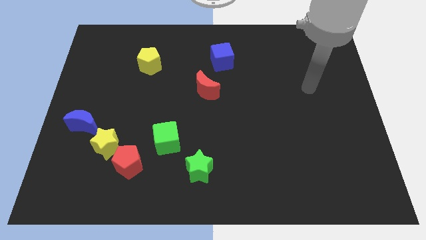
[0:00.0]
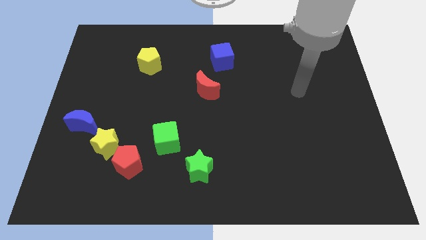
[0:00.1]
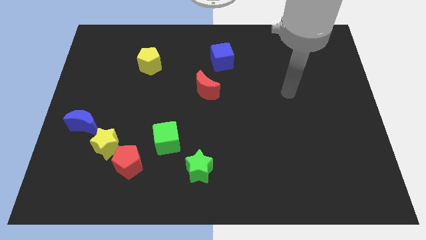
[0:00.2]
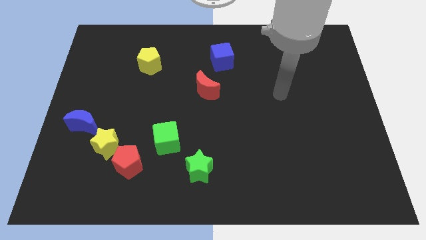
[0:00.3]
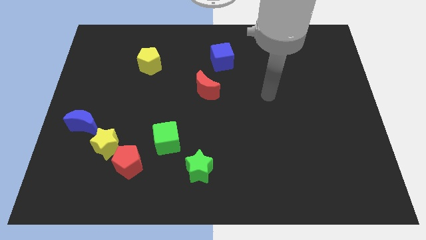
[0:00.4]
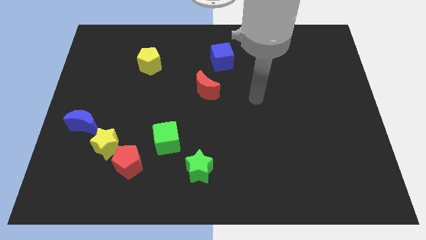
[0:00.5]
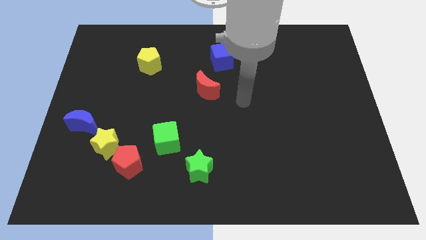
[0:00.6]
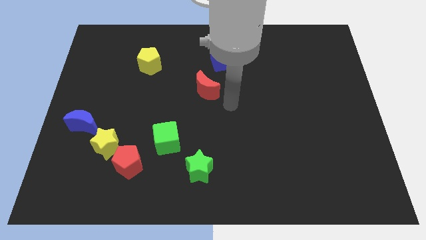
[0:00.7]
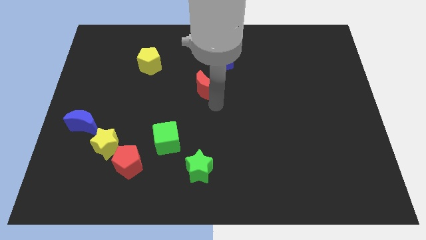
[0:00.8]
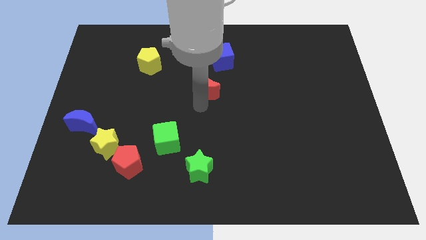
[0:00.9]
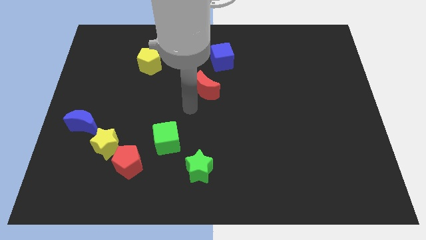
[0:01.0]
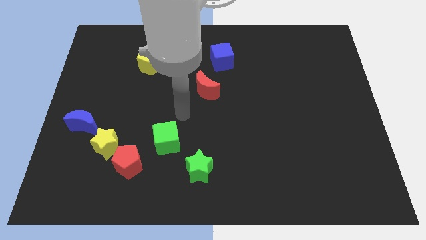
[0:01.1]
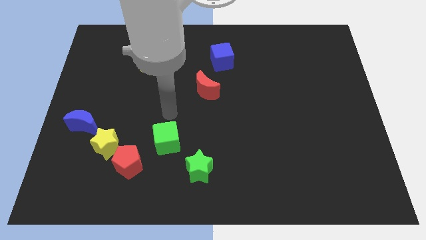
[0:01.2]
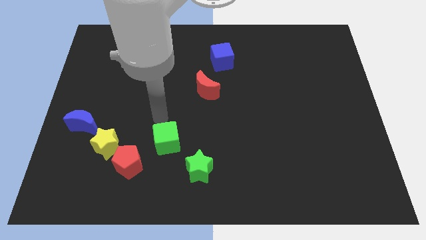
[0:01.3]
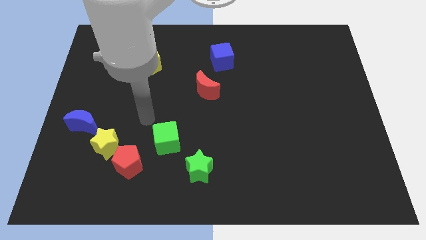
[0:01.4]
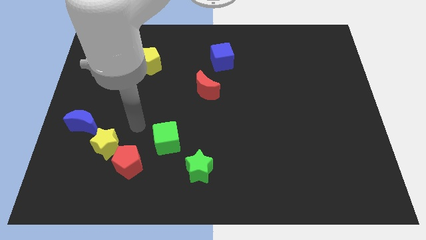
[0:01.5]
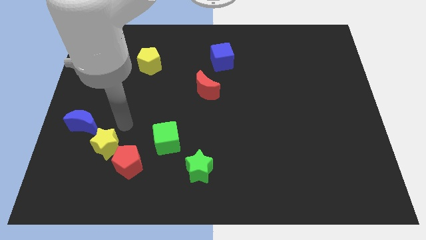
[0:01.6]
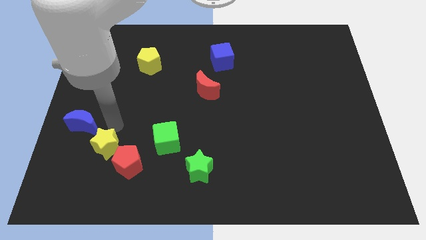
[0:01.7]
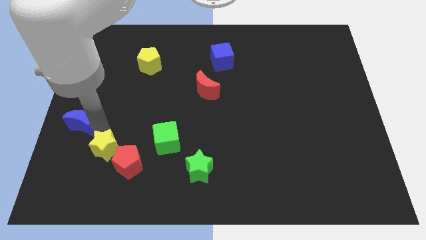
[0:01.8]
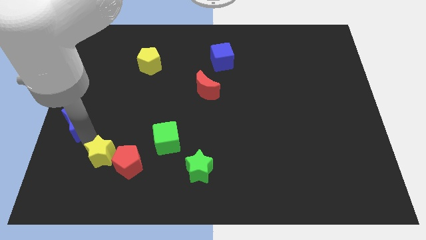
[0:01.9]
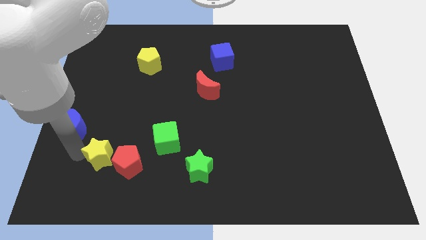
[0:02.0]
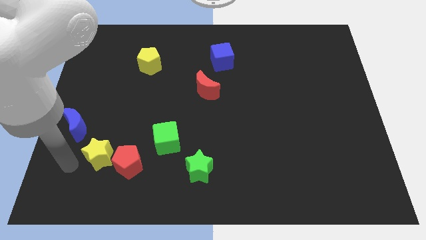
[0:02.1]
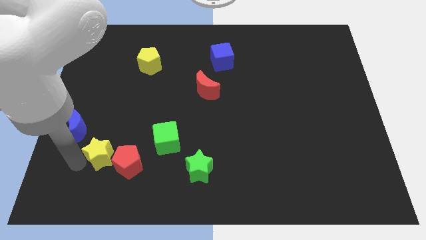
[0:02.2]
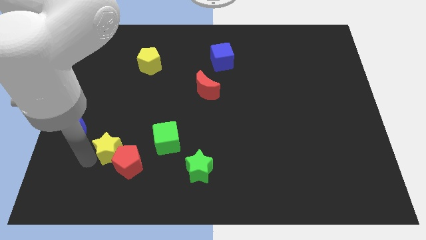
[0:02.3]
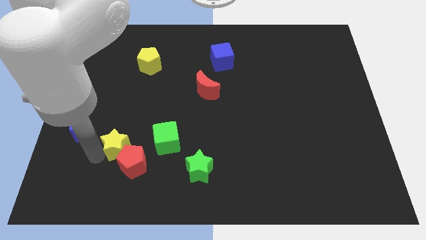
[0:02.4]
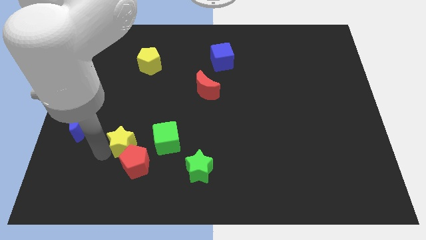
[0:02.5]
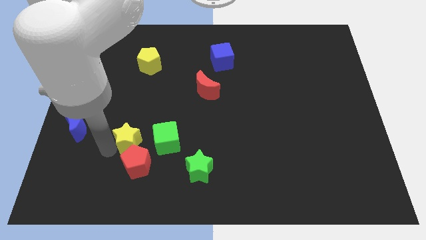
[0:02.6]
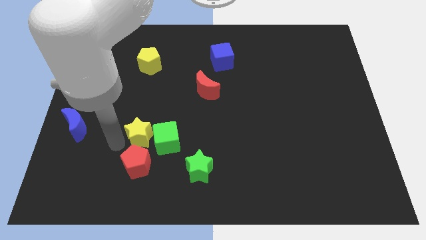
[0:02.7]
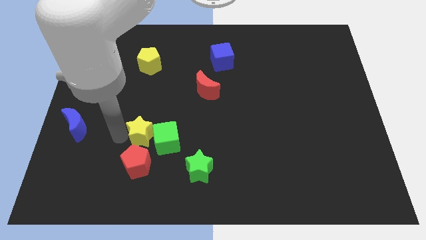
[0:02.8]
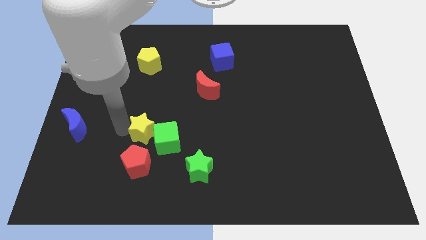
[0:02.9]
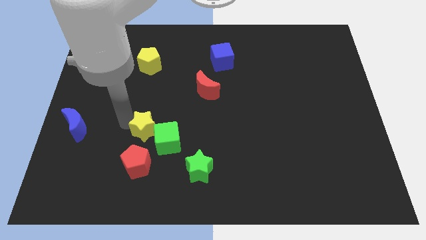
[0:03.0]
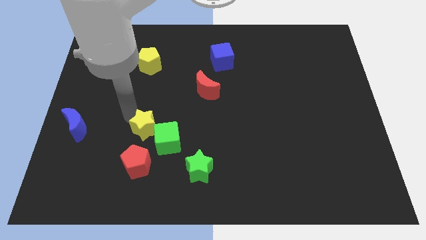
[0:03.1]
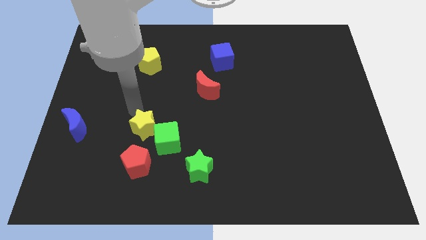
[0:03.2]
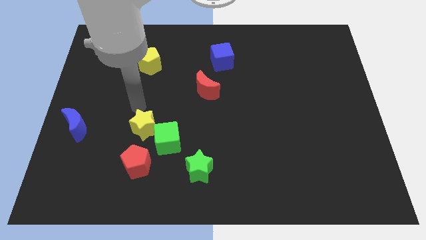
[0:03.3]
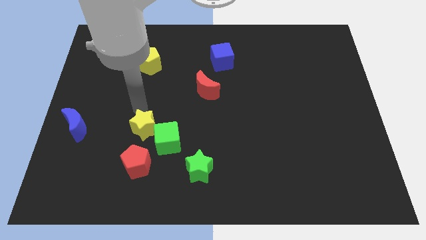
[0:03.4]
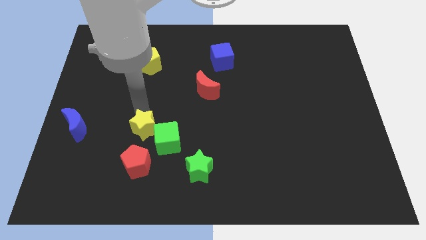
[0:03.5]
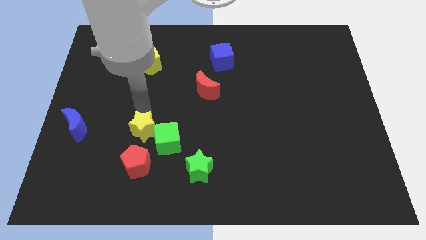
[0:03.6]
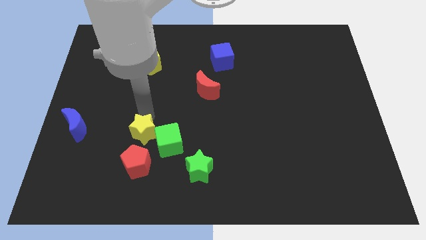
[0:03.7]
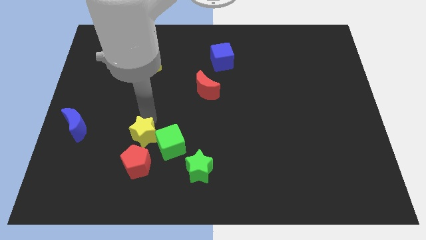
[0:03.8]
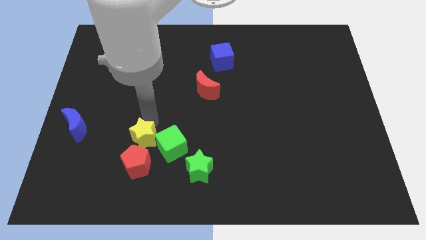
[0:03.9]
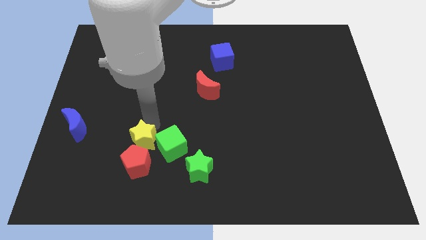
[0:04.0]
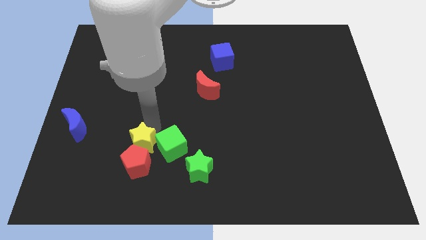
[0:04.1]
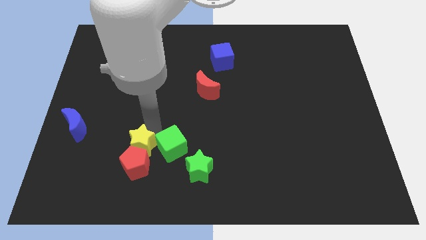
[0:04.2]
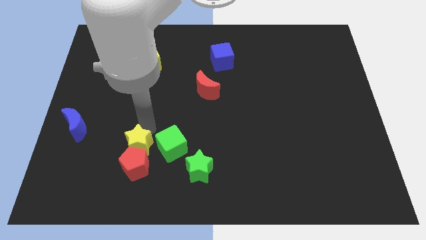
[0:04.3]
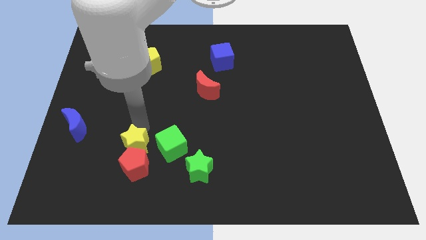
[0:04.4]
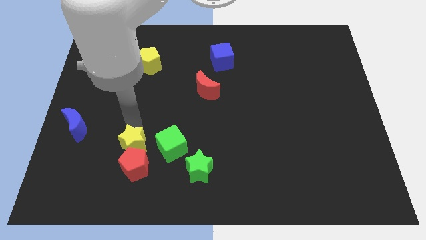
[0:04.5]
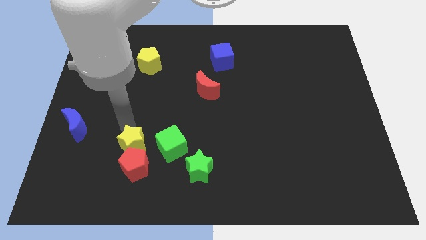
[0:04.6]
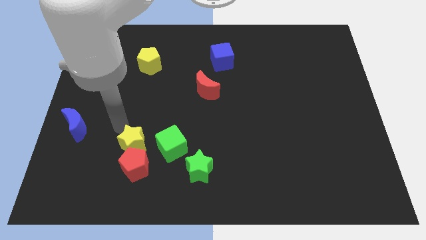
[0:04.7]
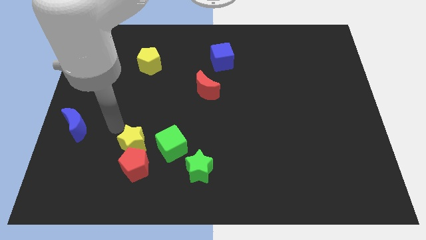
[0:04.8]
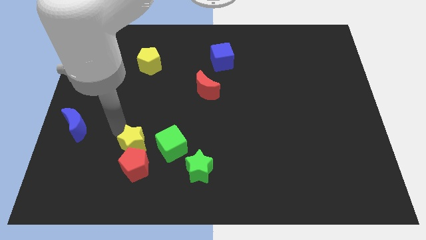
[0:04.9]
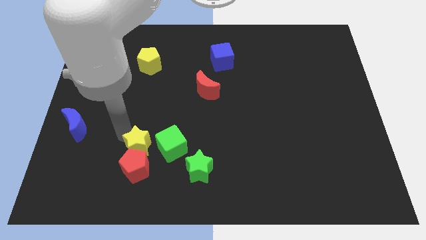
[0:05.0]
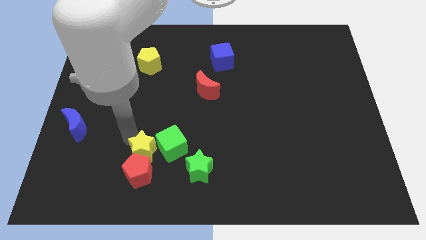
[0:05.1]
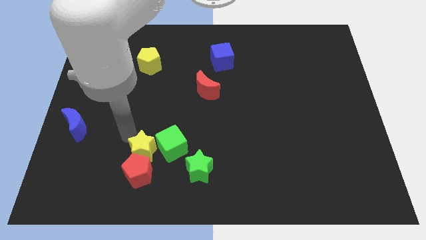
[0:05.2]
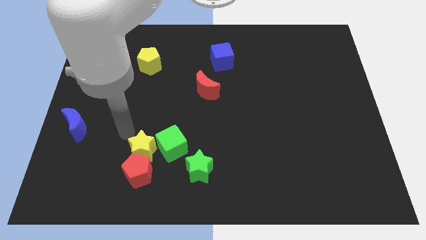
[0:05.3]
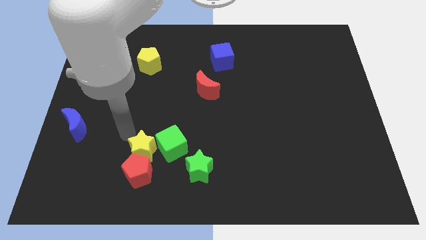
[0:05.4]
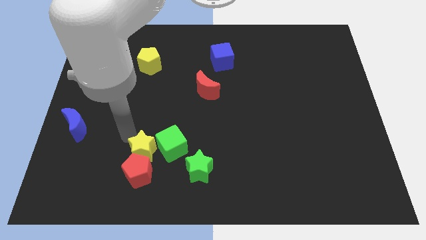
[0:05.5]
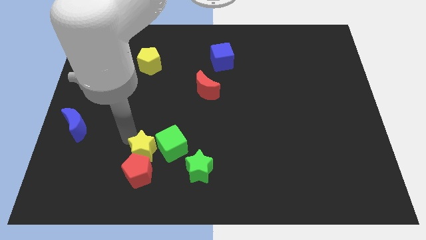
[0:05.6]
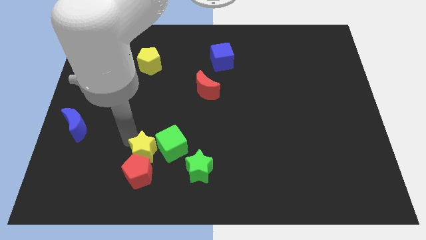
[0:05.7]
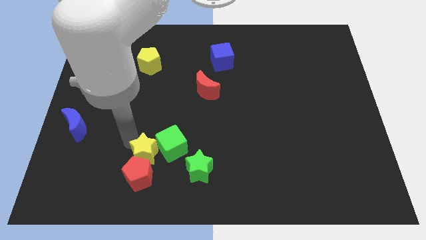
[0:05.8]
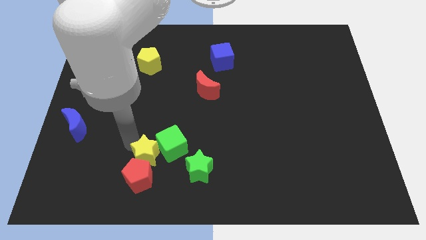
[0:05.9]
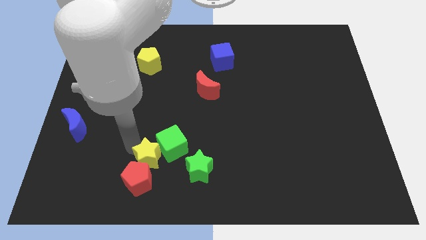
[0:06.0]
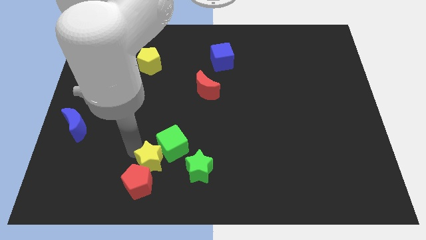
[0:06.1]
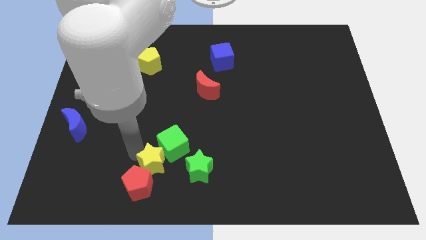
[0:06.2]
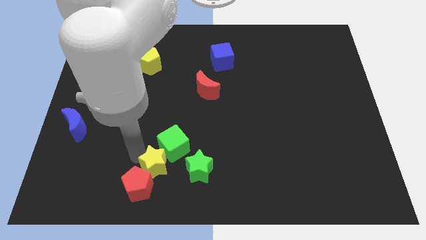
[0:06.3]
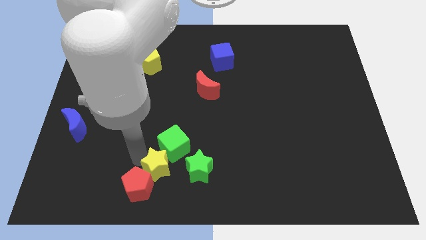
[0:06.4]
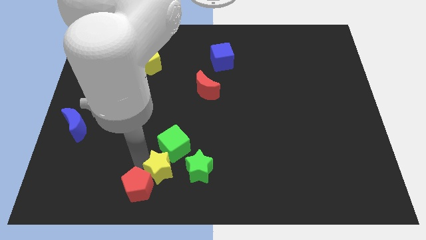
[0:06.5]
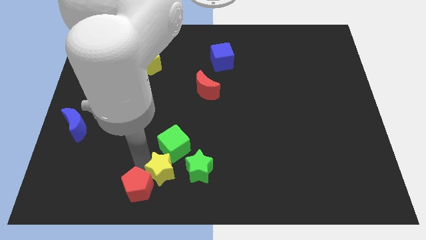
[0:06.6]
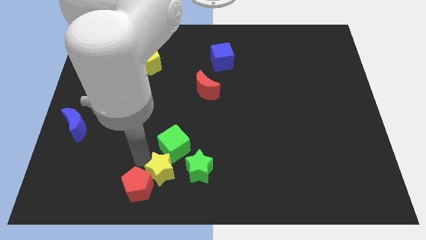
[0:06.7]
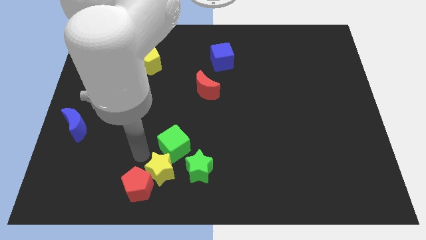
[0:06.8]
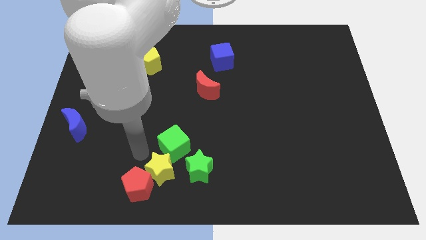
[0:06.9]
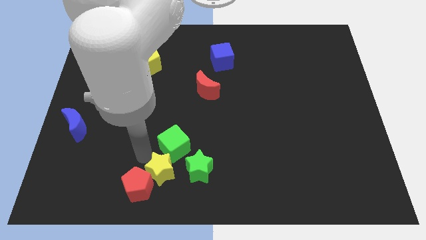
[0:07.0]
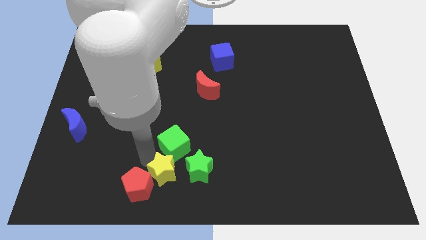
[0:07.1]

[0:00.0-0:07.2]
push the yellow star to the bottom
